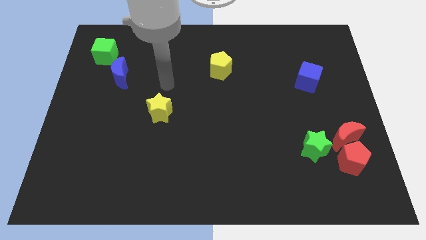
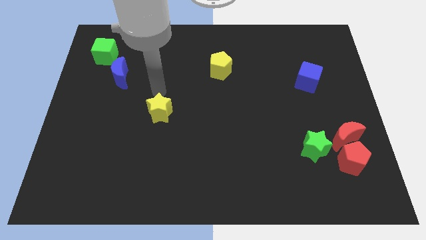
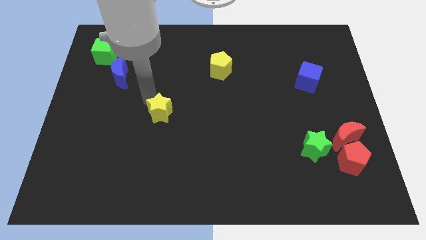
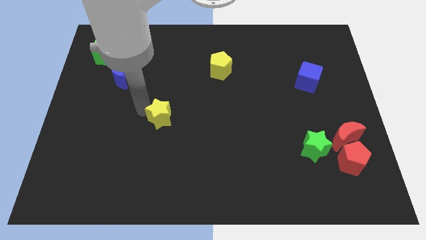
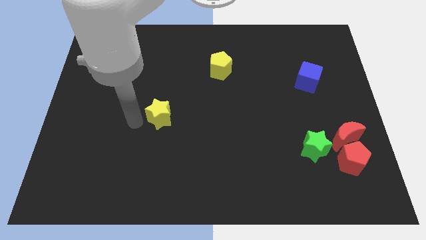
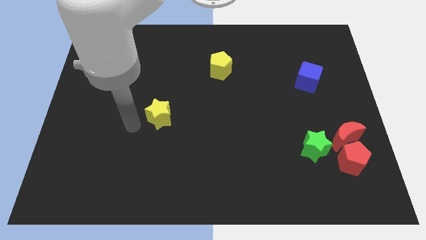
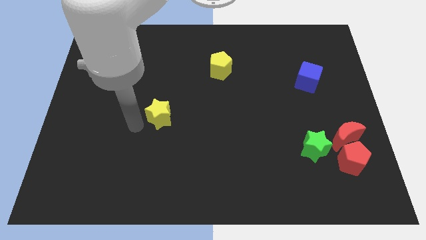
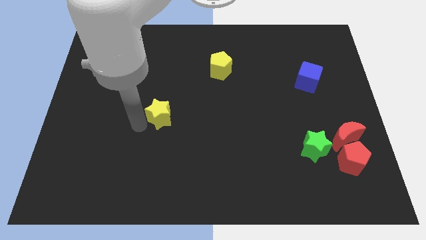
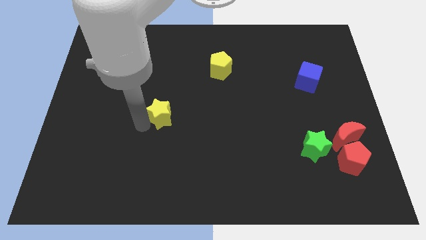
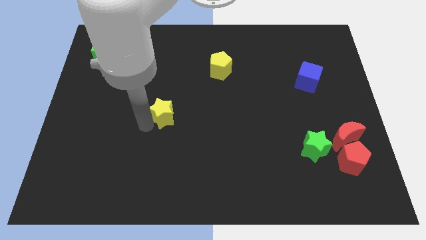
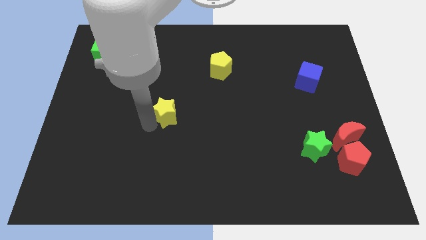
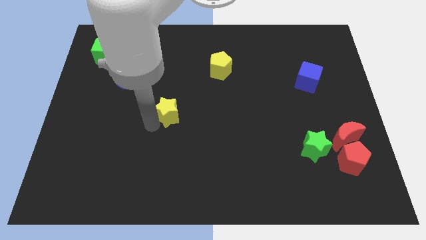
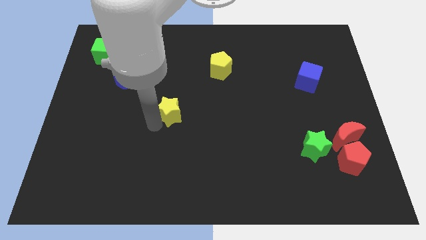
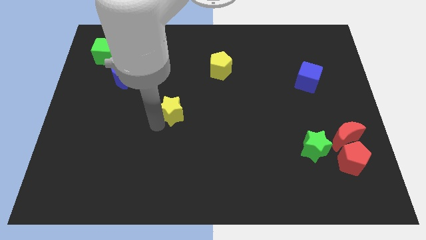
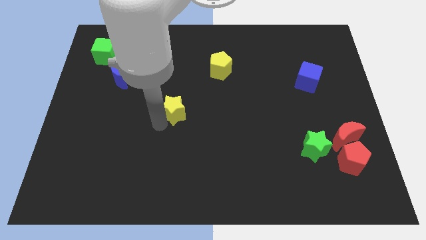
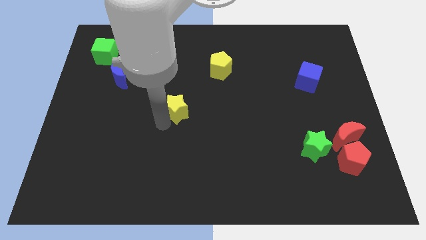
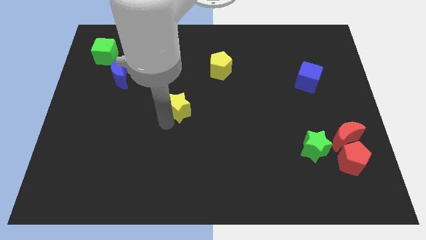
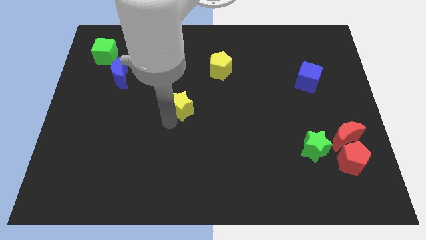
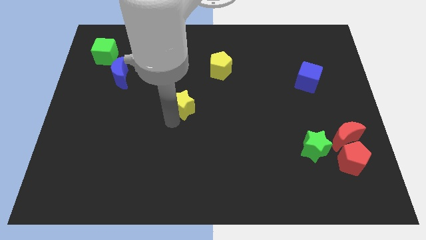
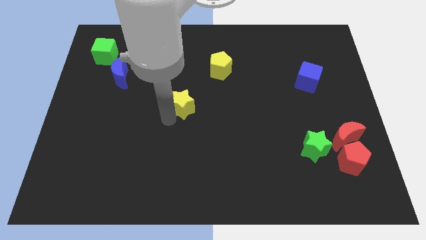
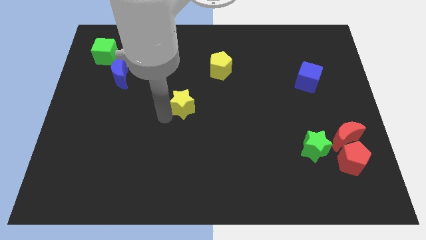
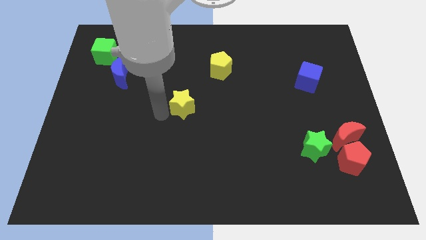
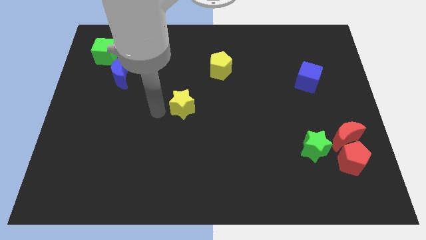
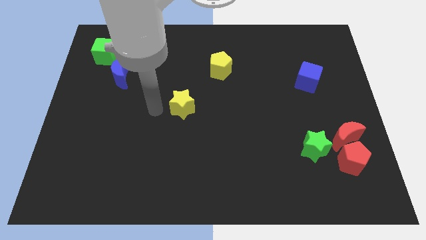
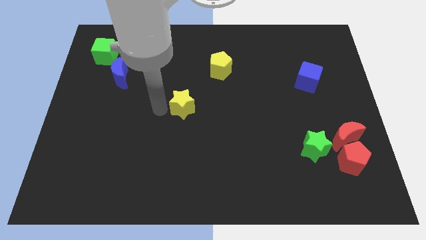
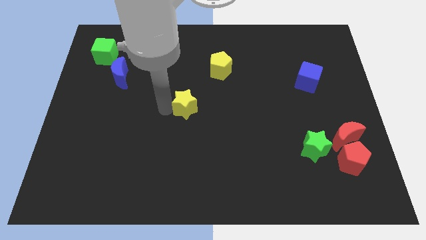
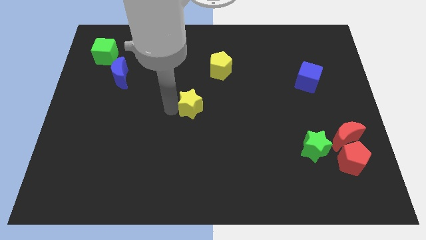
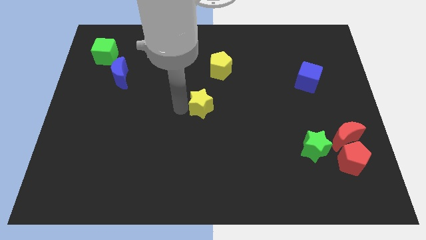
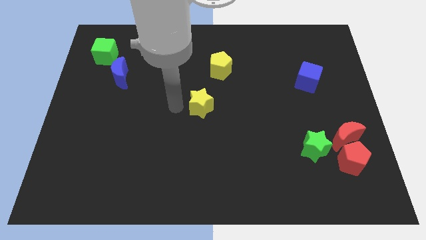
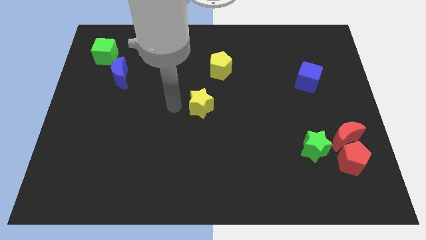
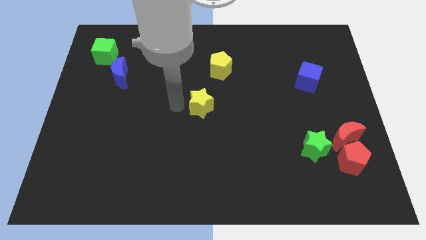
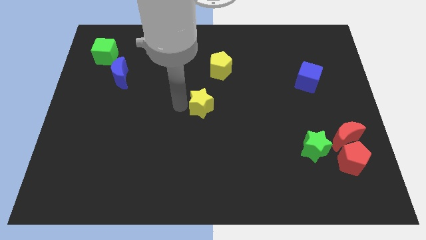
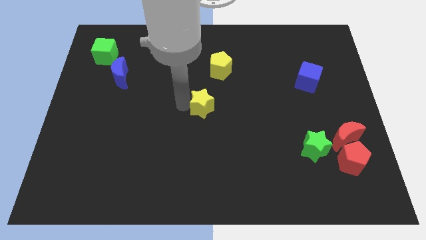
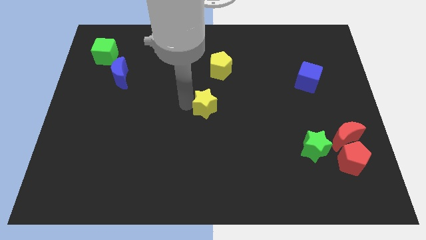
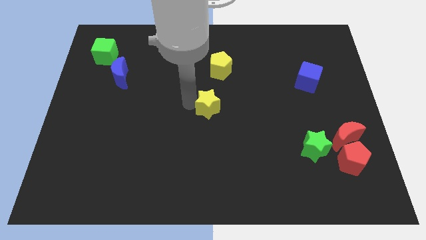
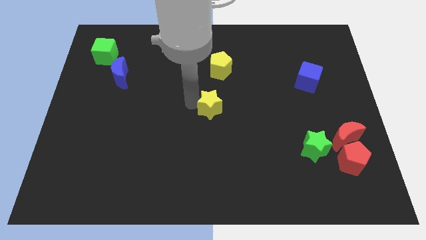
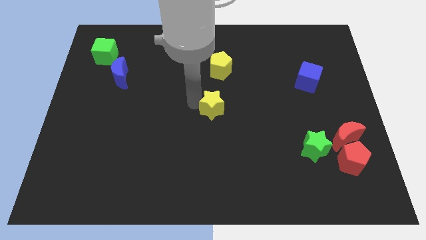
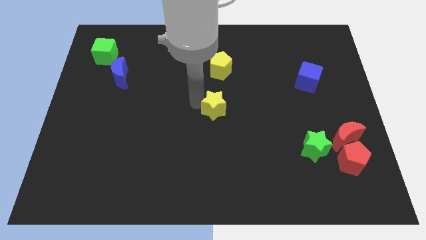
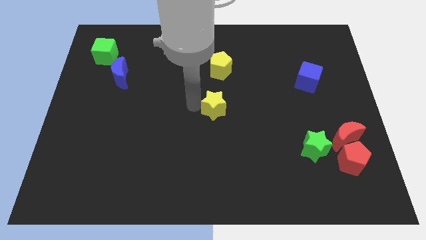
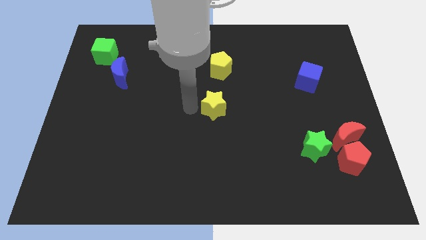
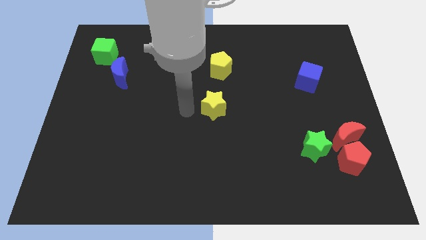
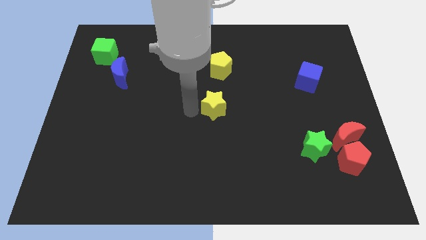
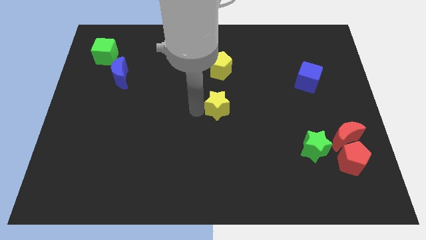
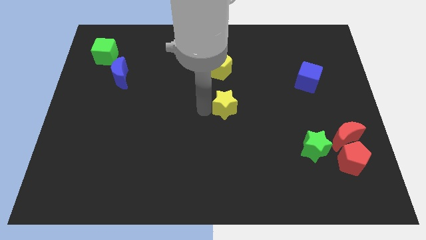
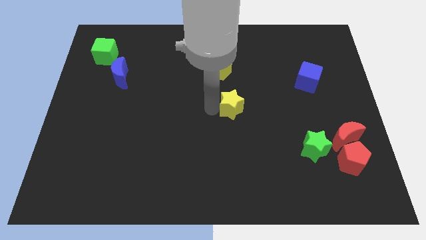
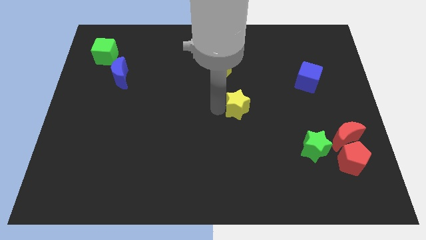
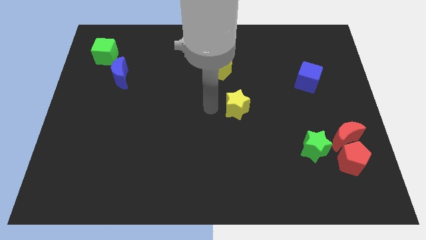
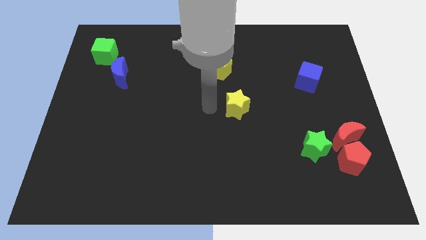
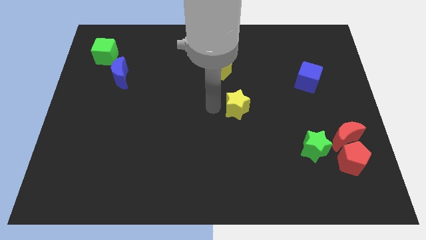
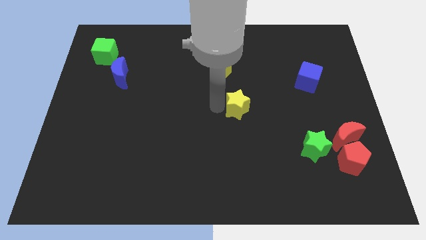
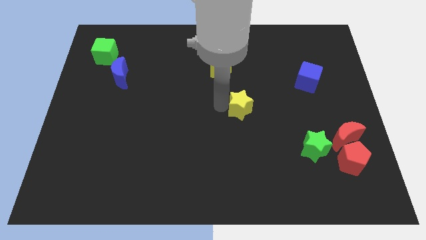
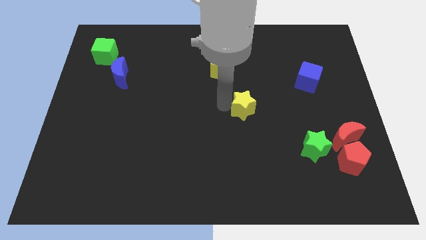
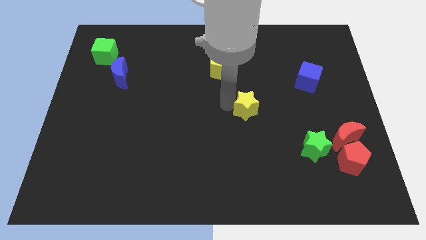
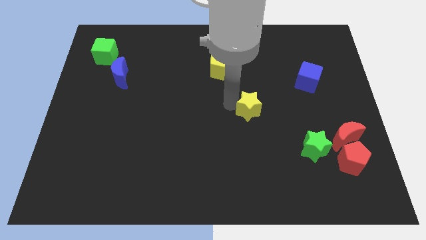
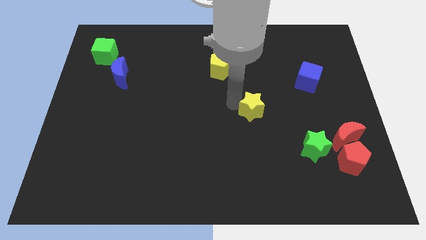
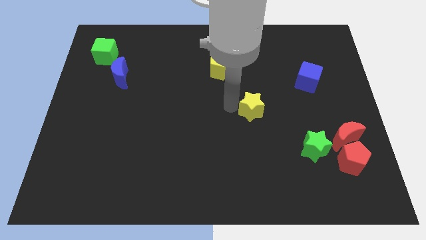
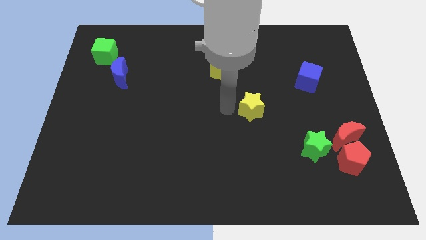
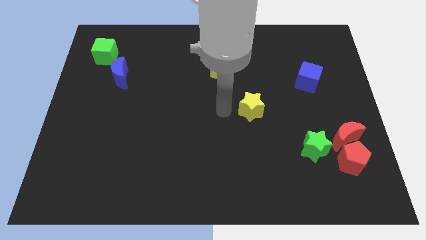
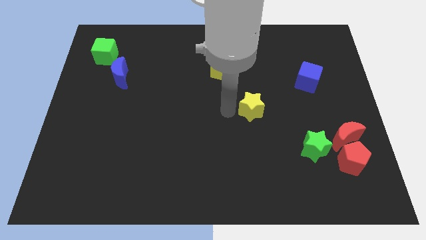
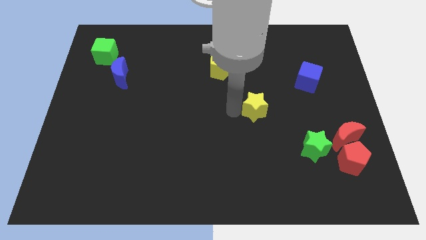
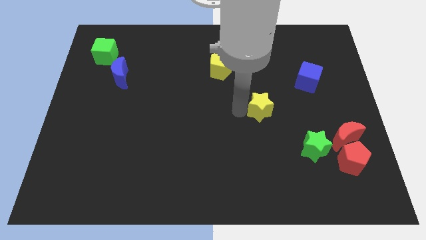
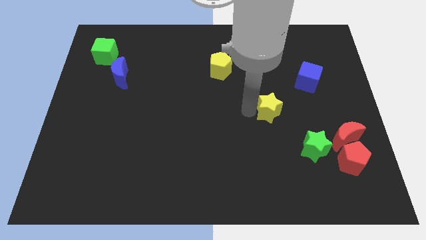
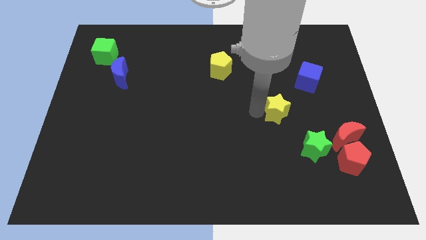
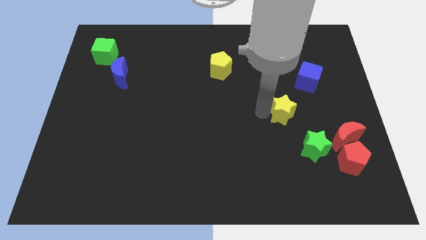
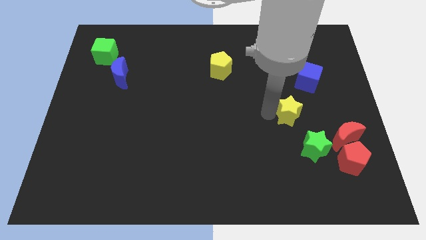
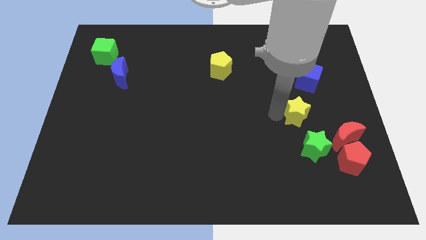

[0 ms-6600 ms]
move the yellow star to the bottom of the blue cube
